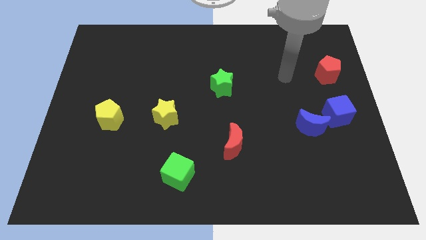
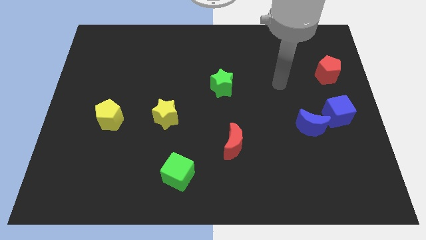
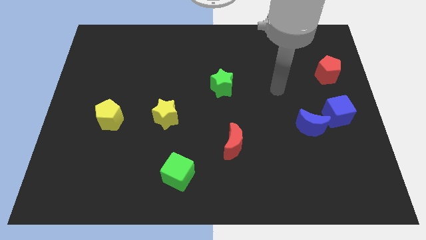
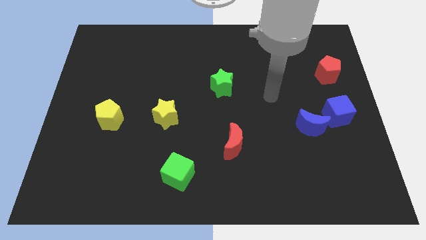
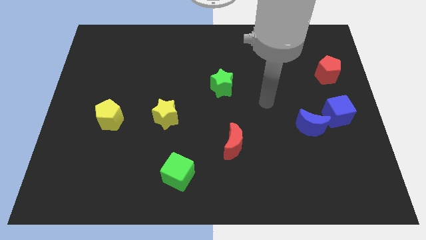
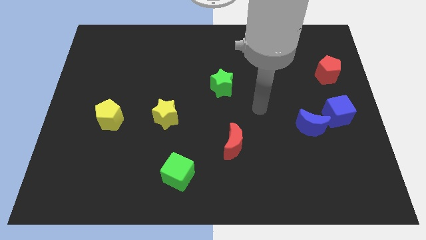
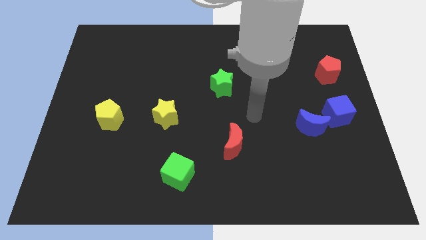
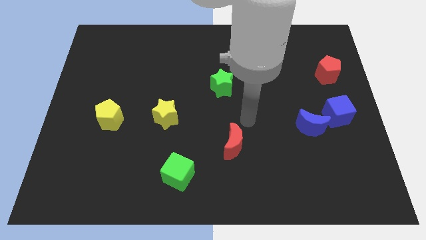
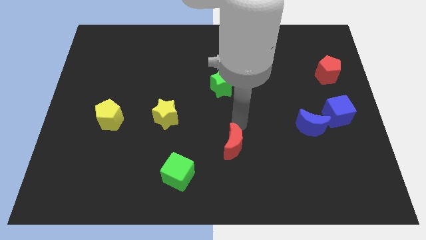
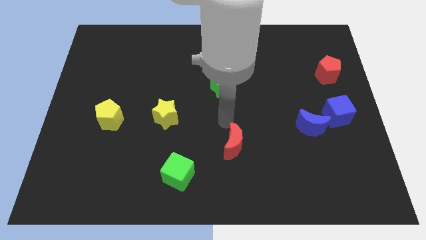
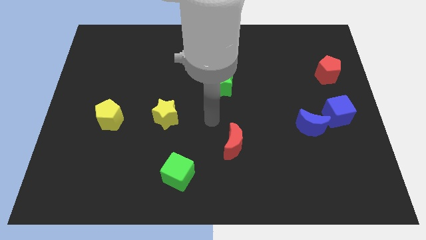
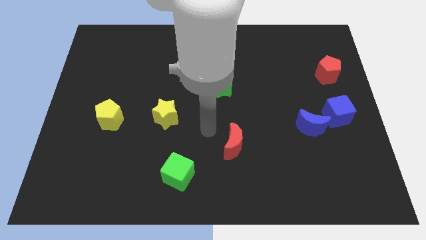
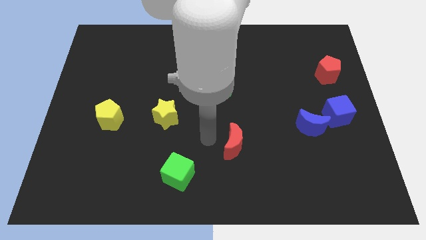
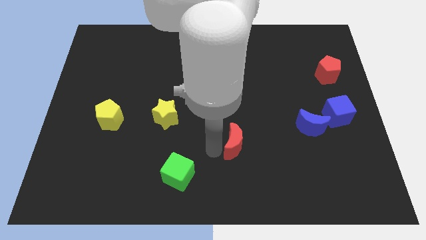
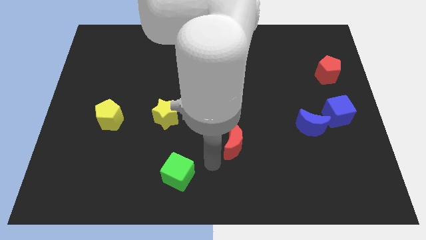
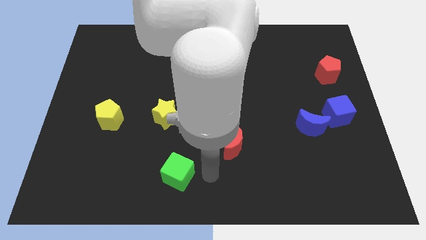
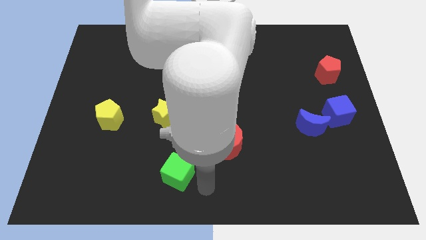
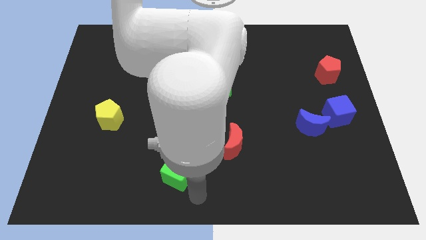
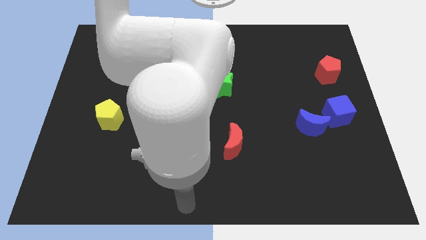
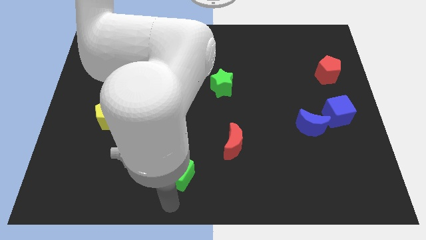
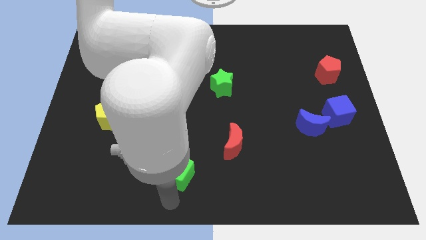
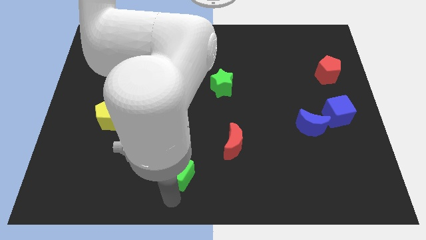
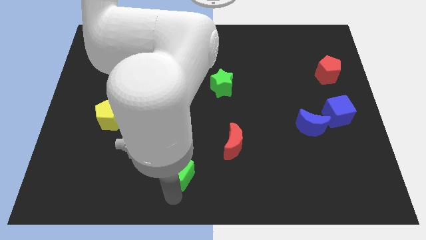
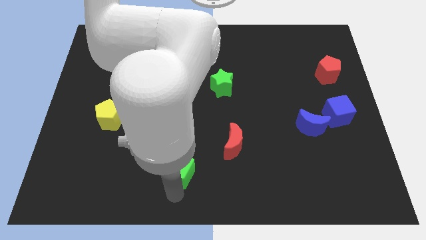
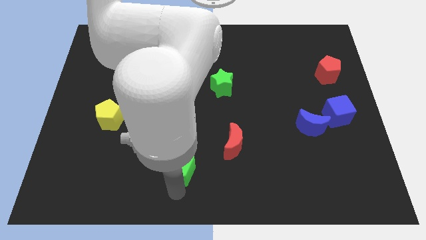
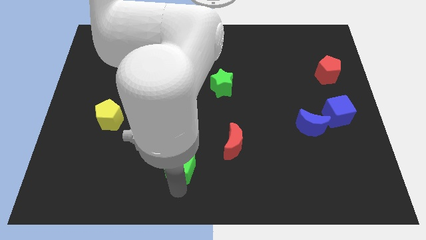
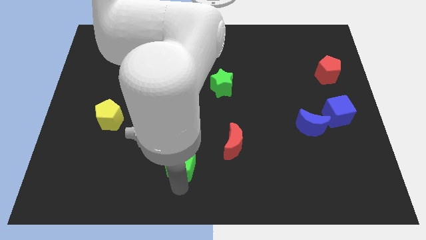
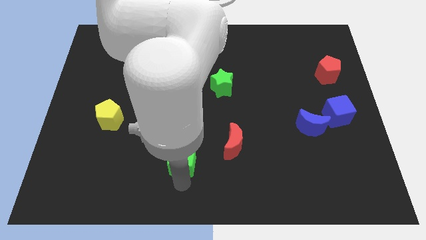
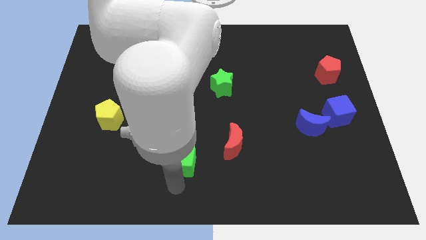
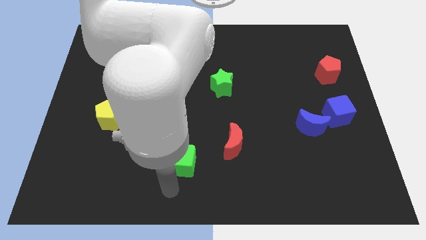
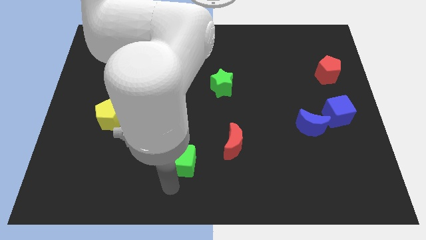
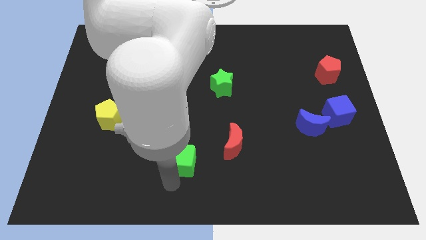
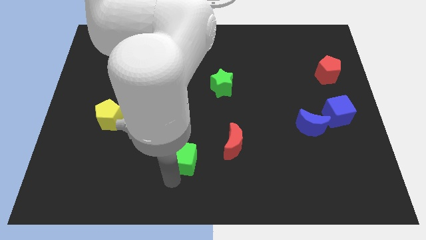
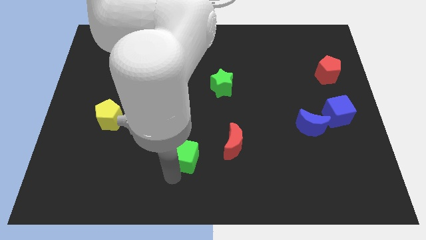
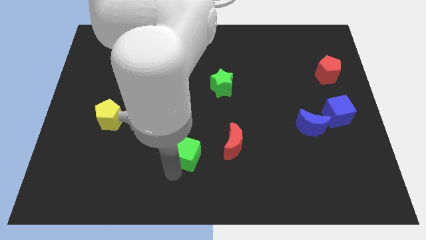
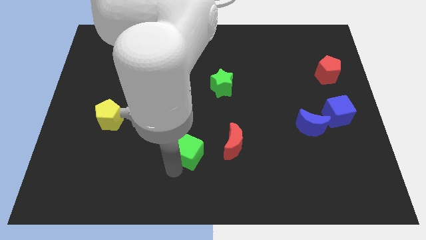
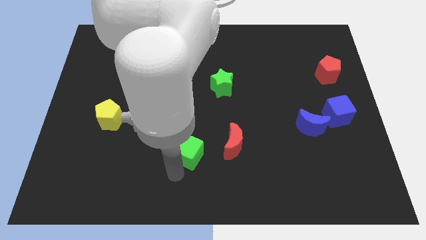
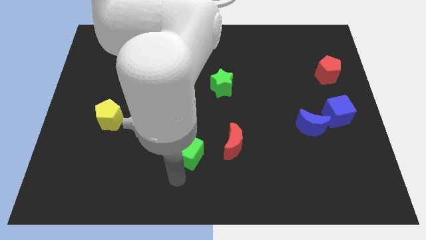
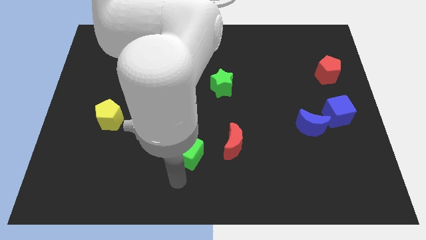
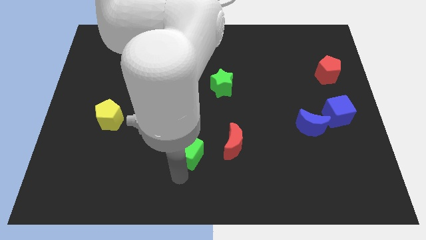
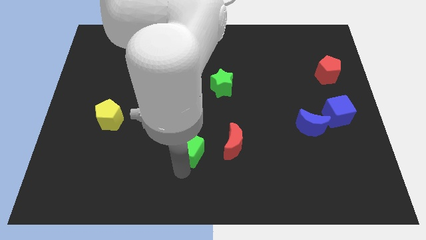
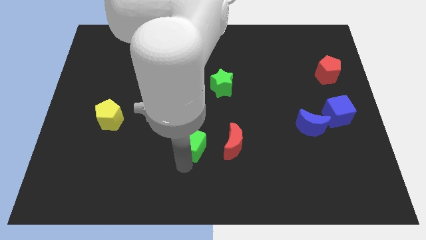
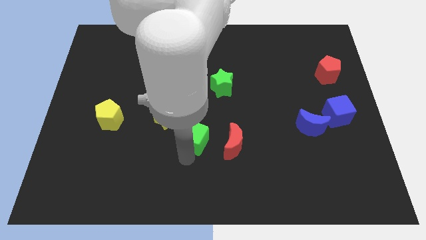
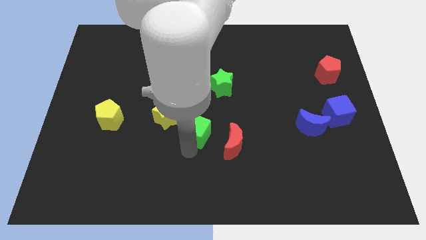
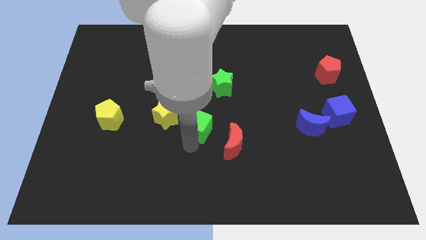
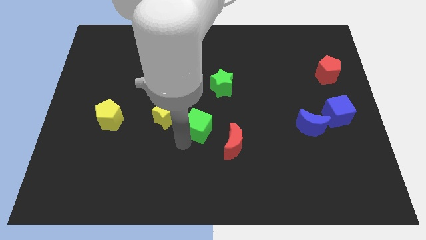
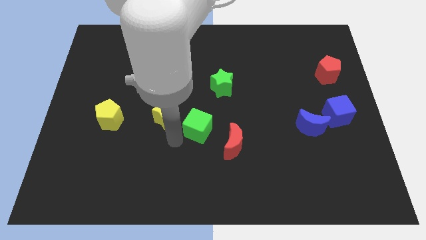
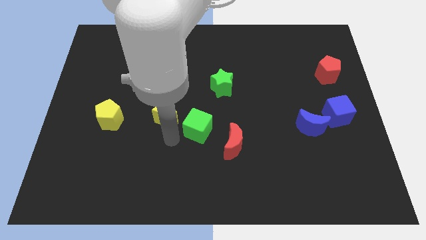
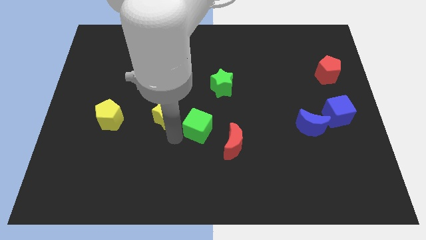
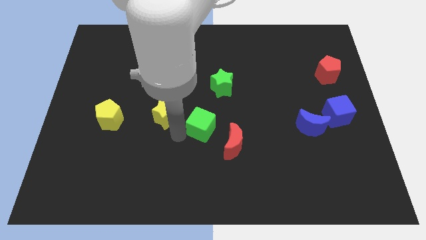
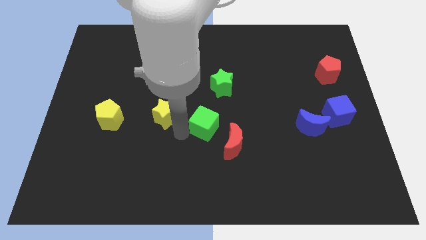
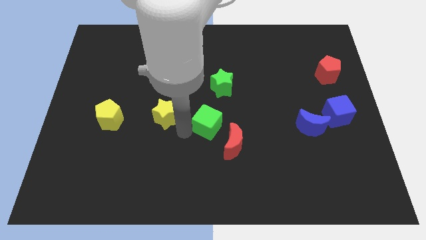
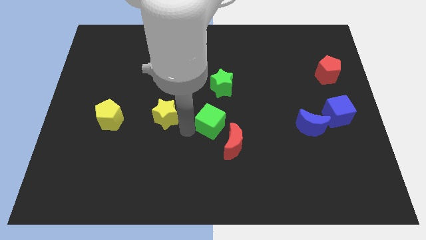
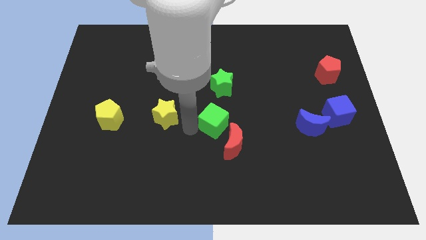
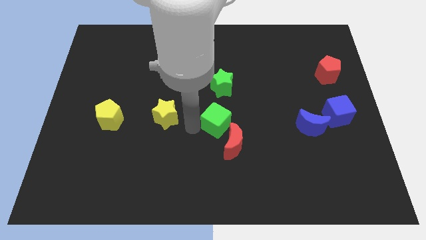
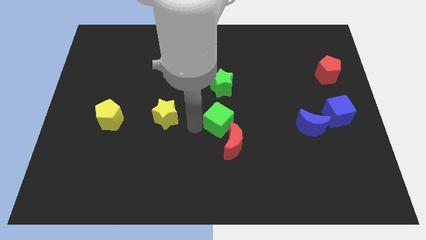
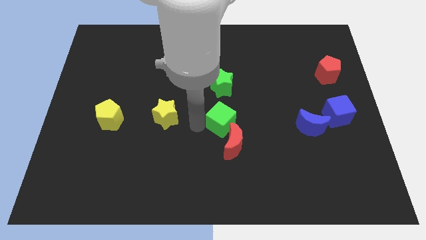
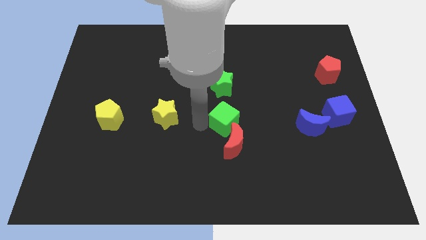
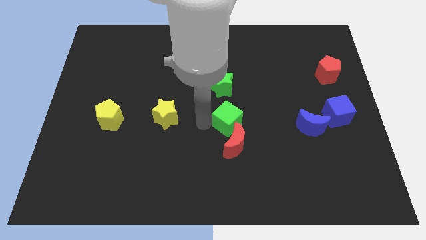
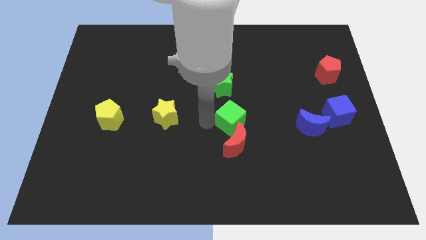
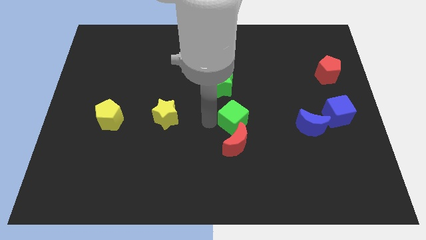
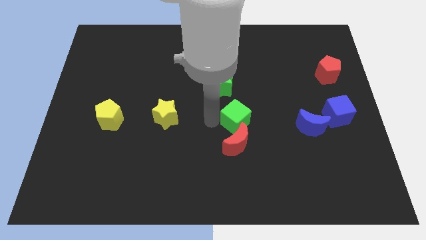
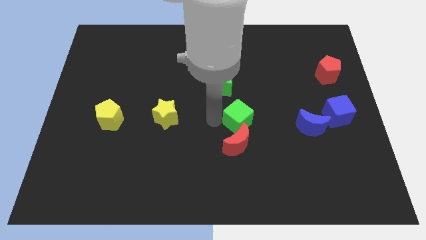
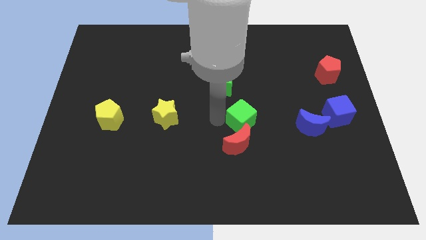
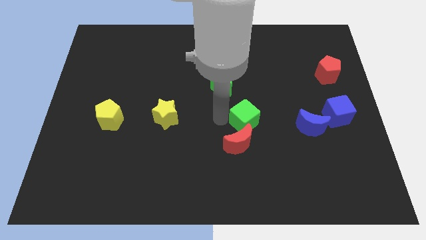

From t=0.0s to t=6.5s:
push the green cube upwards and to the right diagonally

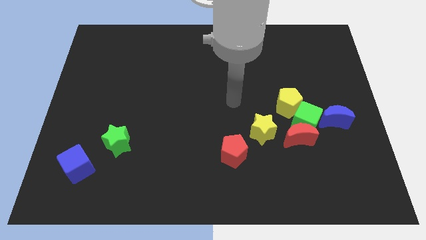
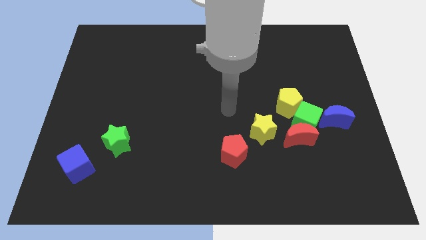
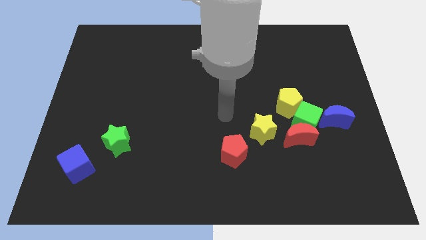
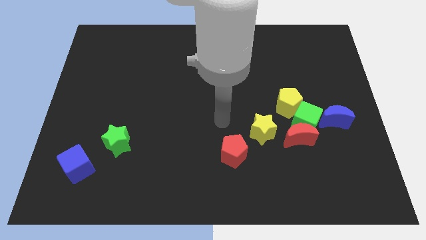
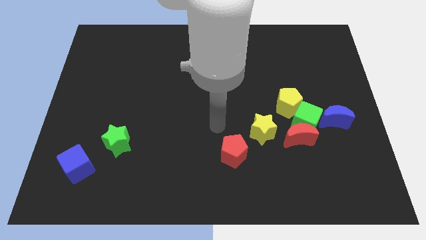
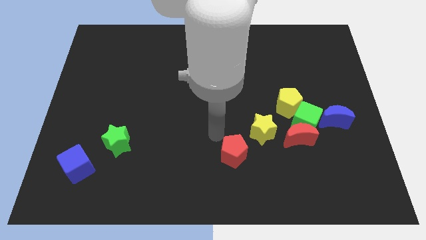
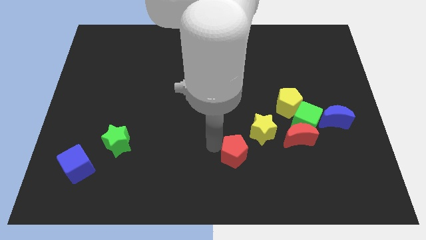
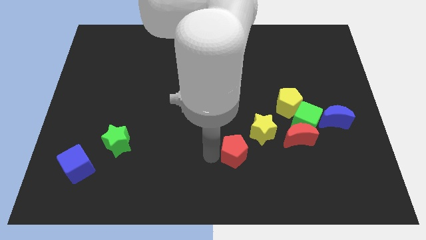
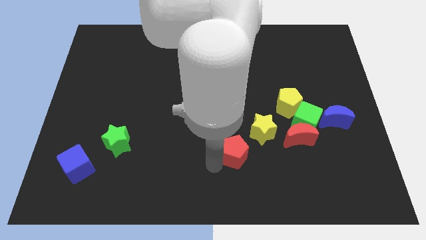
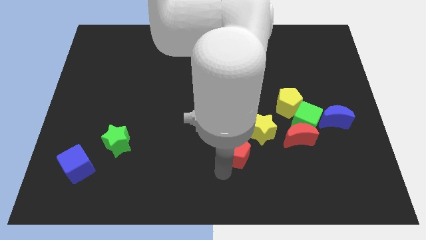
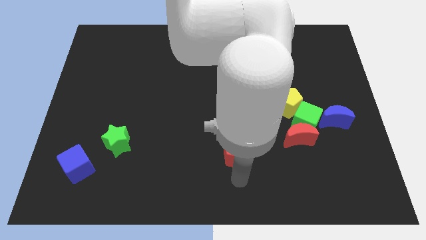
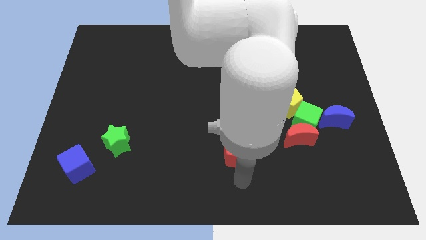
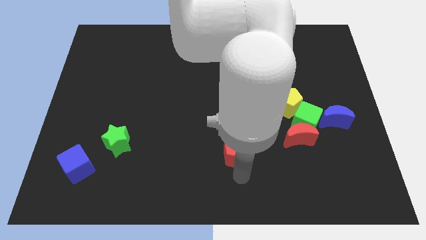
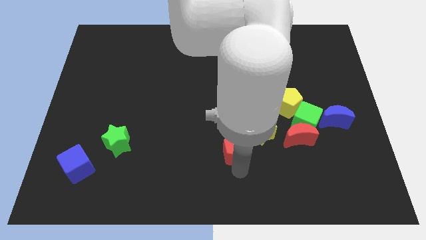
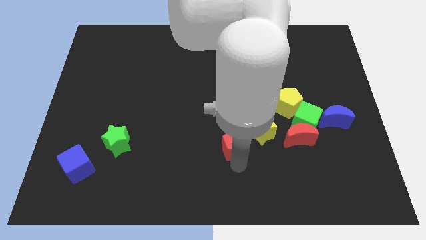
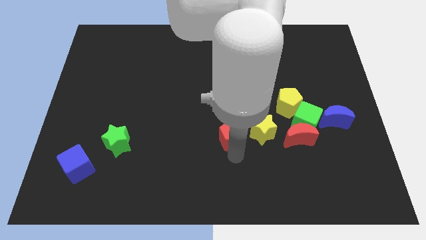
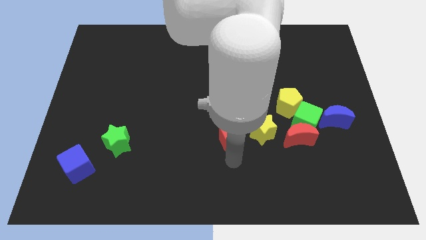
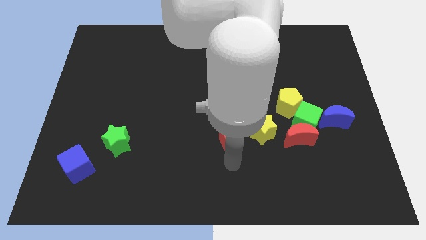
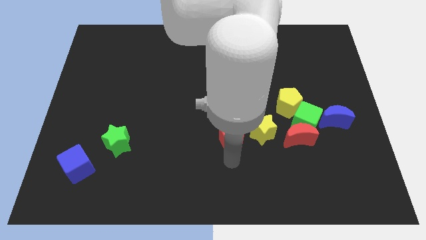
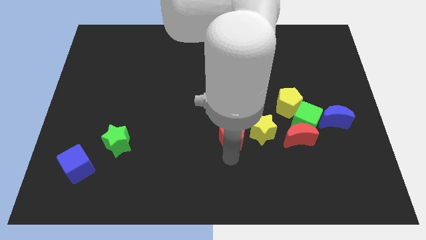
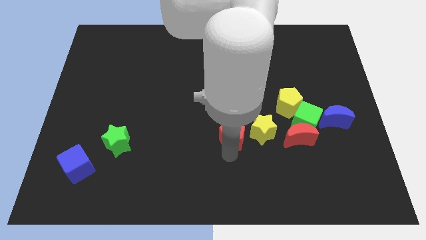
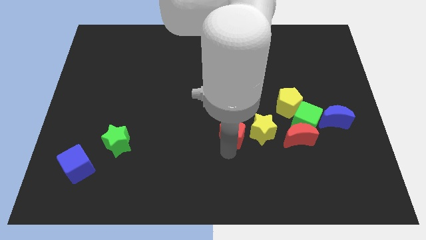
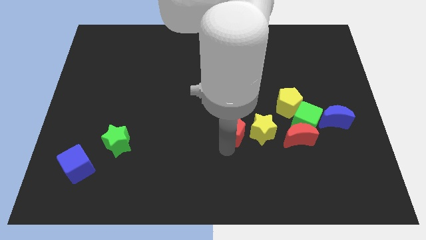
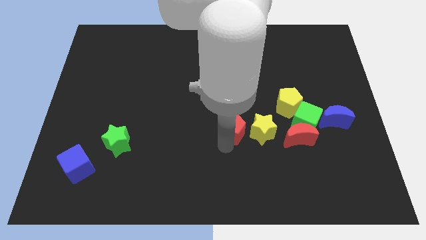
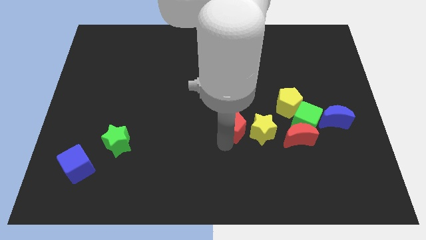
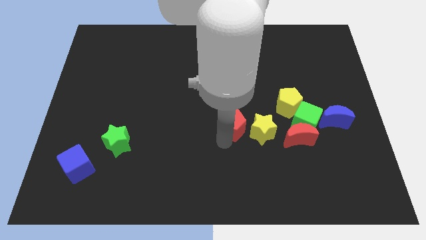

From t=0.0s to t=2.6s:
move the red pentagon up slightly
